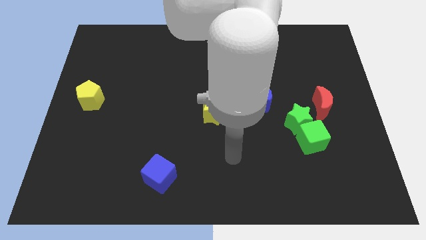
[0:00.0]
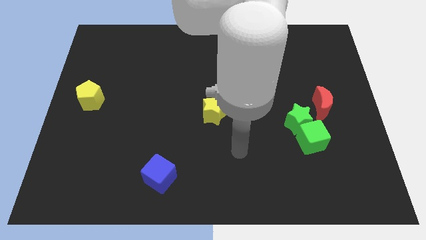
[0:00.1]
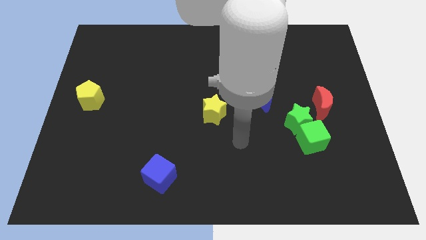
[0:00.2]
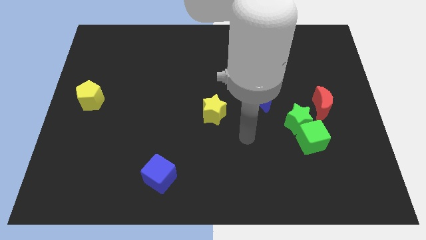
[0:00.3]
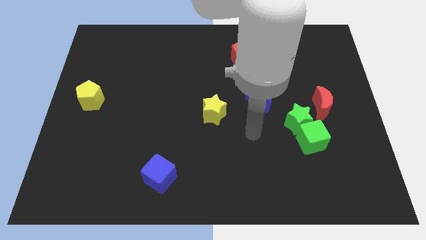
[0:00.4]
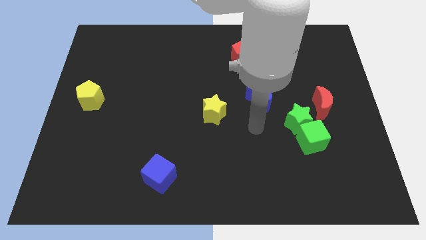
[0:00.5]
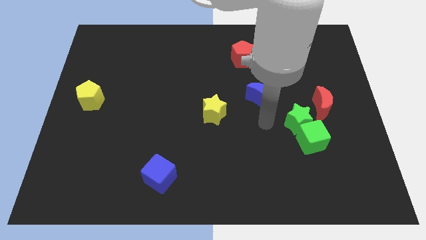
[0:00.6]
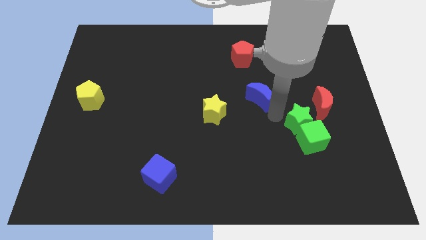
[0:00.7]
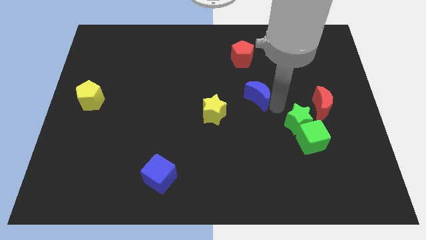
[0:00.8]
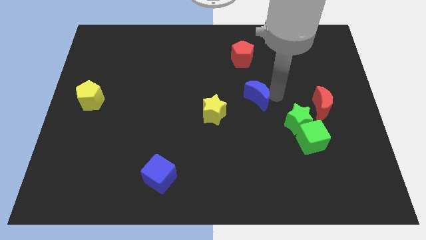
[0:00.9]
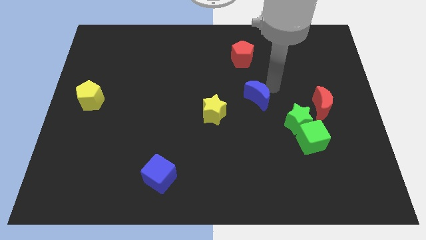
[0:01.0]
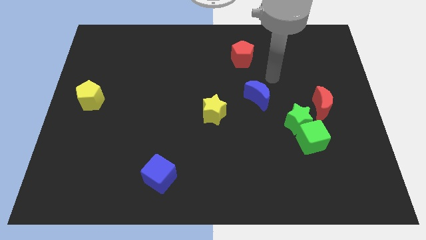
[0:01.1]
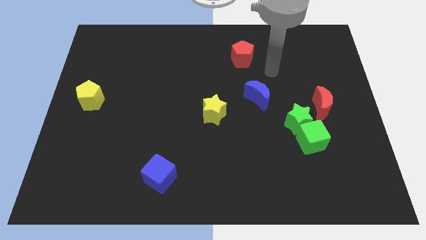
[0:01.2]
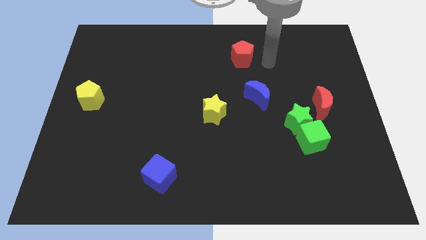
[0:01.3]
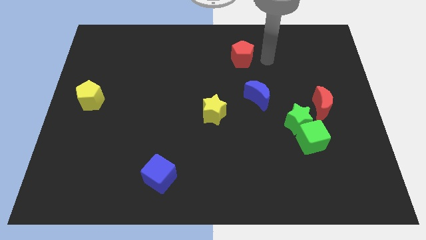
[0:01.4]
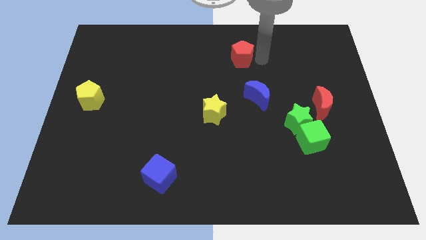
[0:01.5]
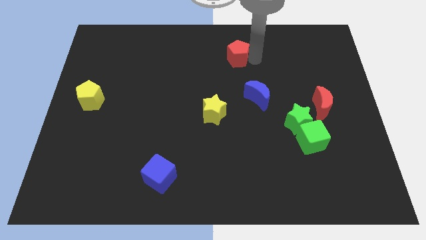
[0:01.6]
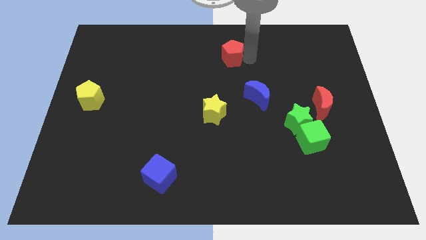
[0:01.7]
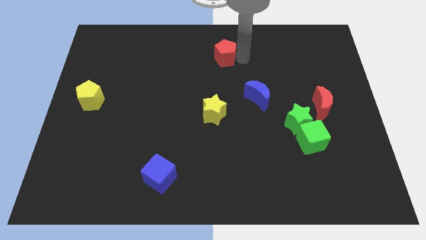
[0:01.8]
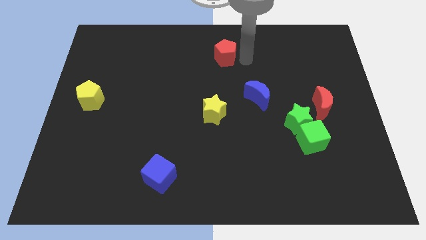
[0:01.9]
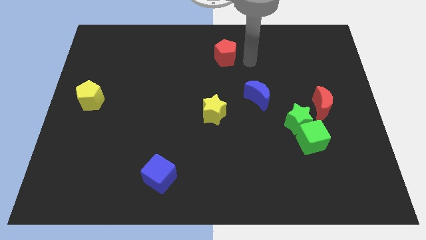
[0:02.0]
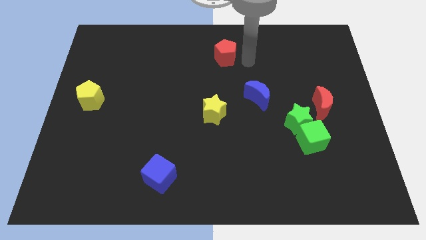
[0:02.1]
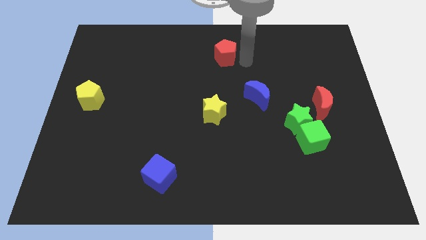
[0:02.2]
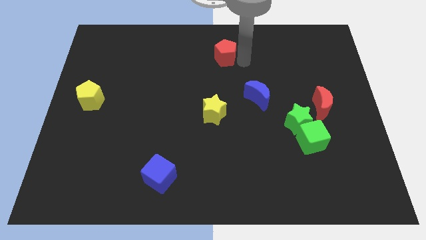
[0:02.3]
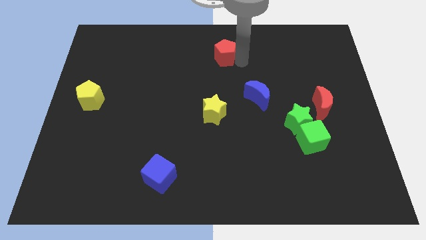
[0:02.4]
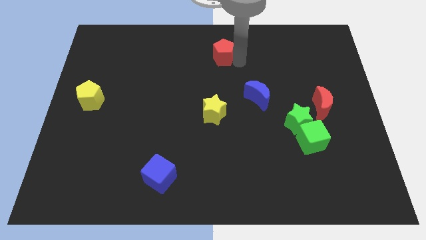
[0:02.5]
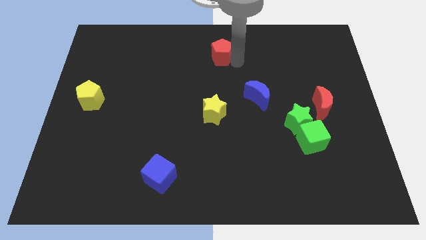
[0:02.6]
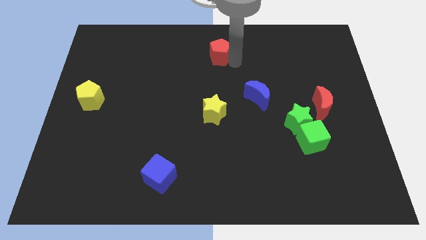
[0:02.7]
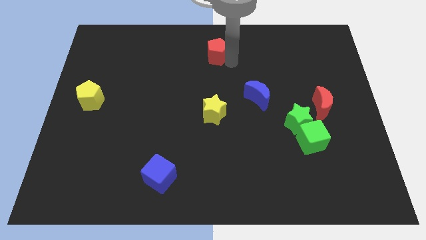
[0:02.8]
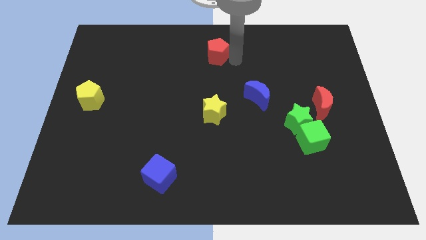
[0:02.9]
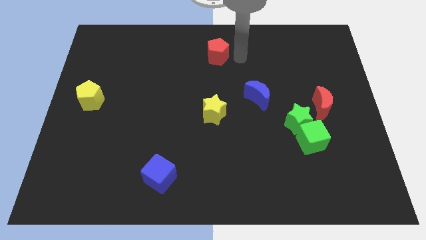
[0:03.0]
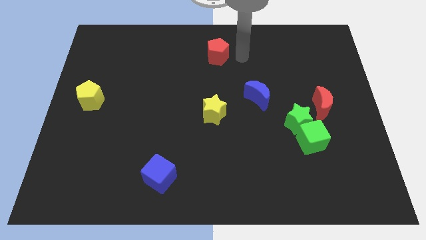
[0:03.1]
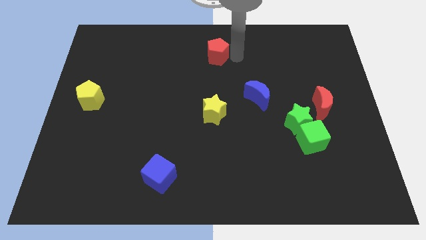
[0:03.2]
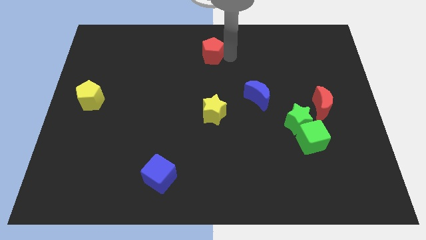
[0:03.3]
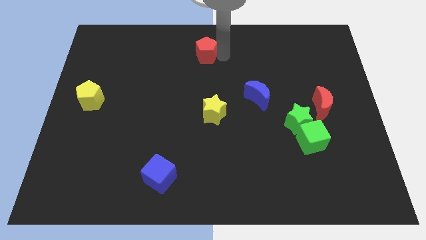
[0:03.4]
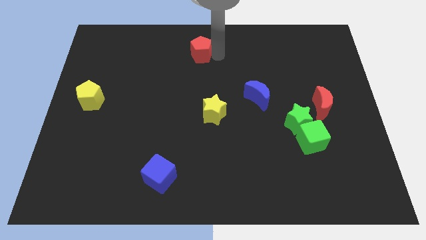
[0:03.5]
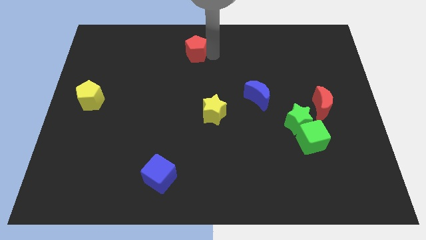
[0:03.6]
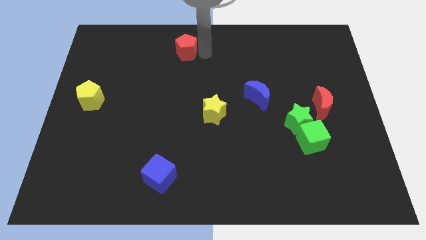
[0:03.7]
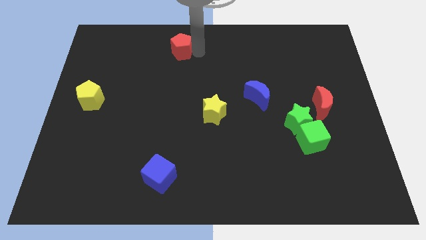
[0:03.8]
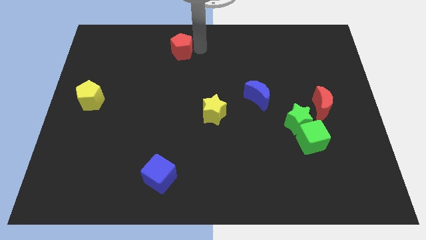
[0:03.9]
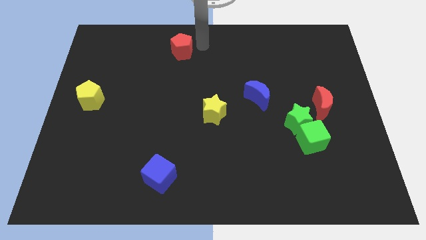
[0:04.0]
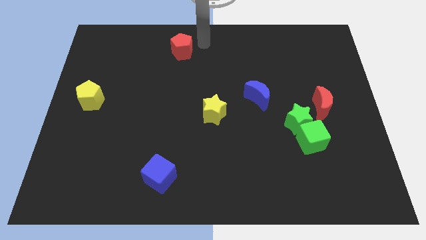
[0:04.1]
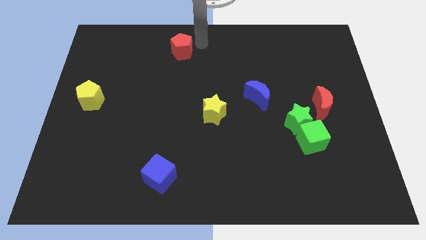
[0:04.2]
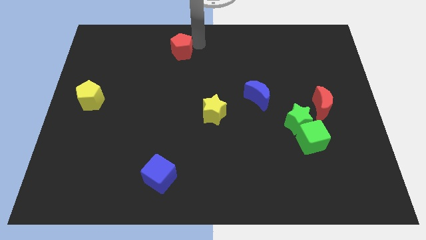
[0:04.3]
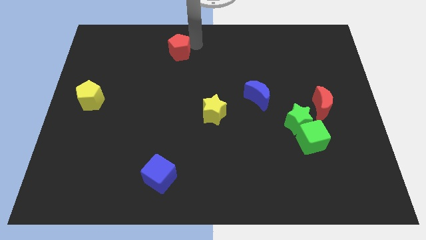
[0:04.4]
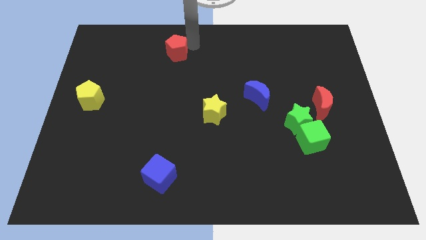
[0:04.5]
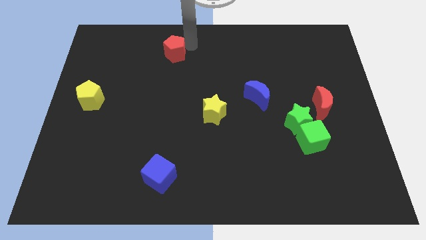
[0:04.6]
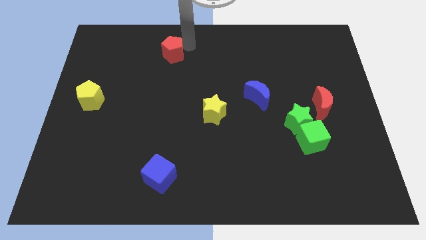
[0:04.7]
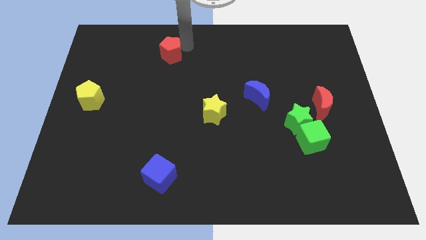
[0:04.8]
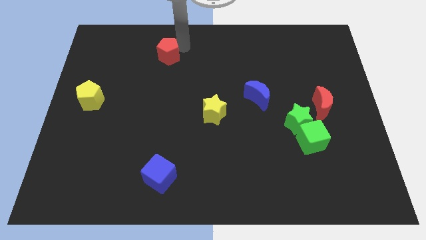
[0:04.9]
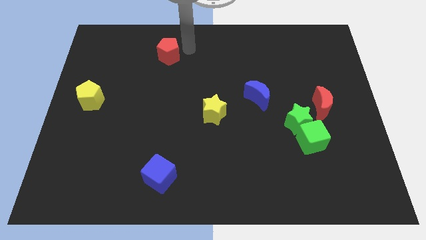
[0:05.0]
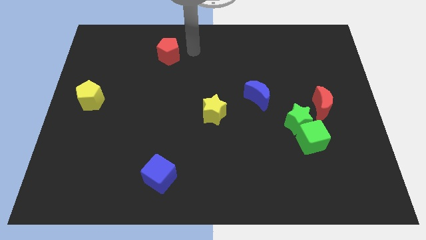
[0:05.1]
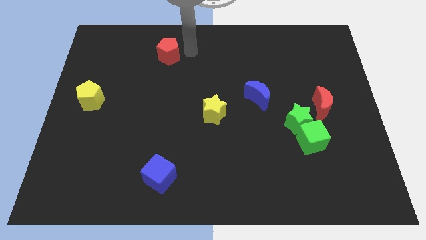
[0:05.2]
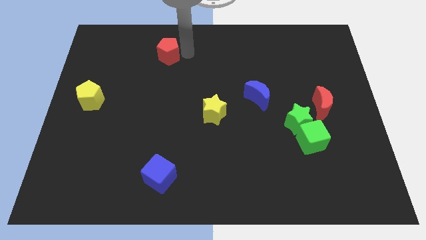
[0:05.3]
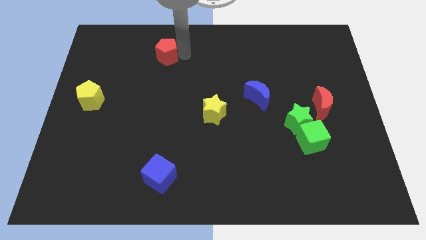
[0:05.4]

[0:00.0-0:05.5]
move the red pentagon to the left

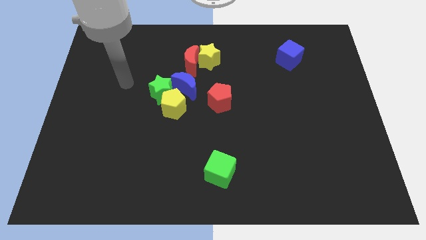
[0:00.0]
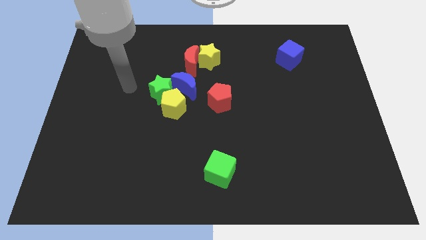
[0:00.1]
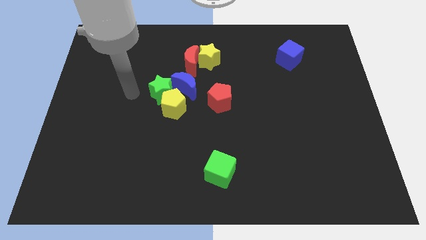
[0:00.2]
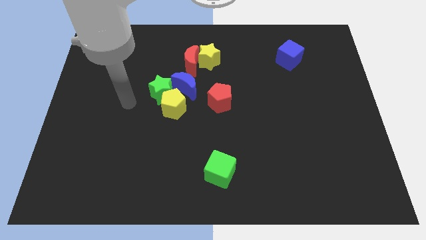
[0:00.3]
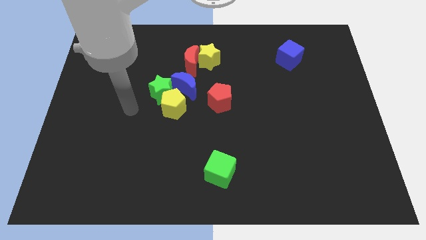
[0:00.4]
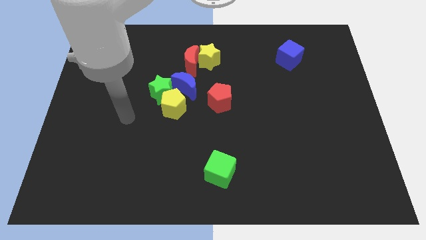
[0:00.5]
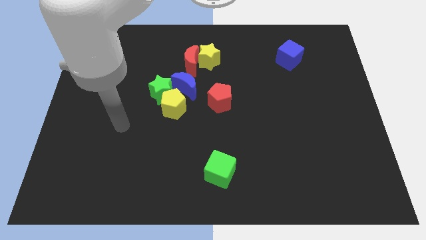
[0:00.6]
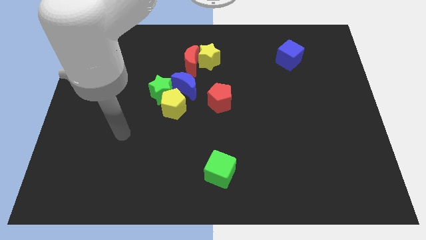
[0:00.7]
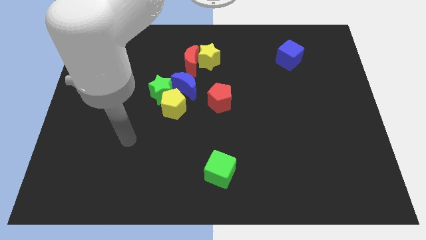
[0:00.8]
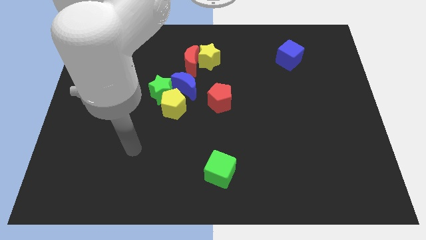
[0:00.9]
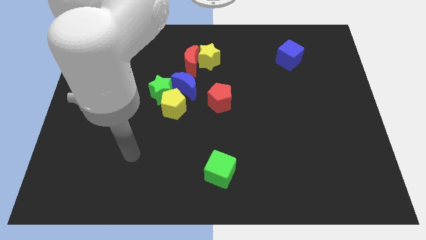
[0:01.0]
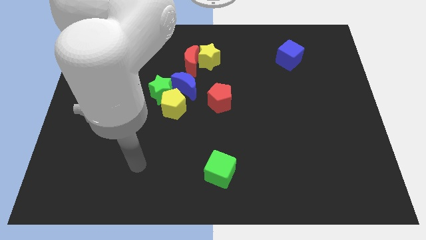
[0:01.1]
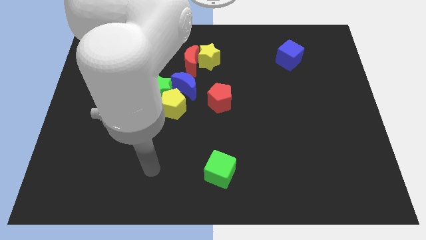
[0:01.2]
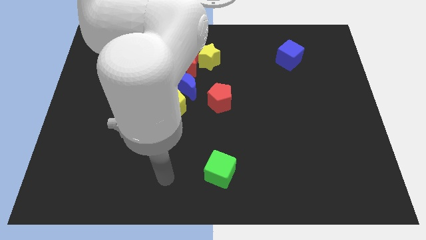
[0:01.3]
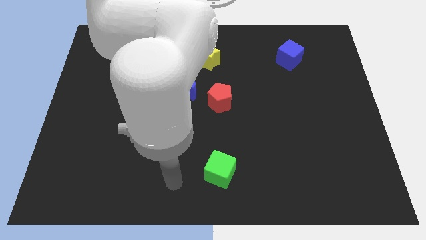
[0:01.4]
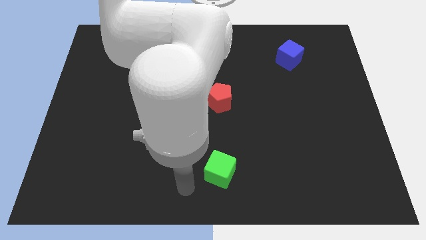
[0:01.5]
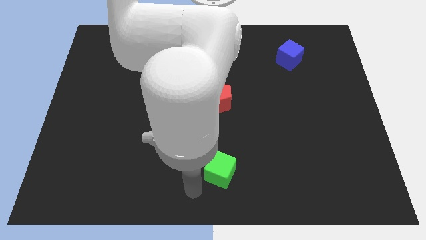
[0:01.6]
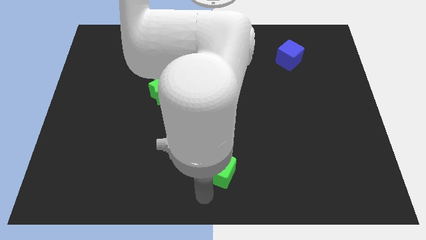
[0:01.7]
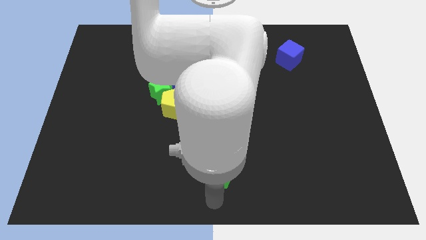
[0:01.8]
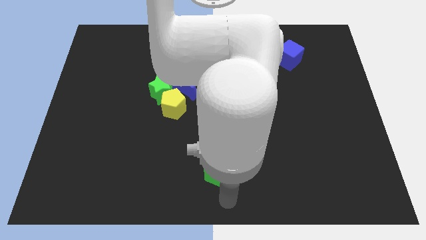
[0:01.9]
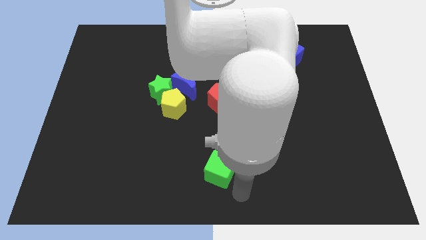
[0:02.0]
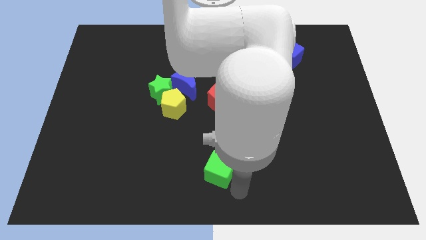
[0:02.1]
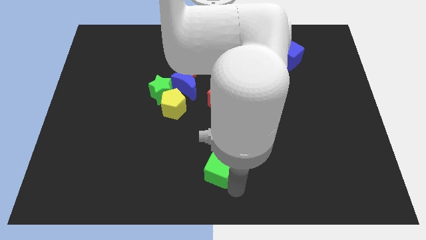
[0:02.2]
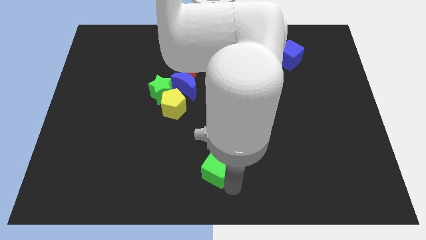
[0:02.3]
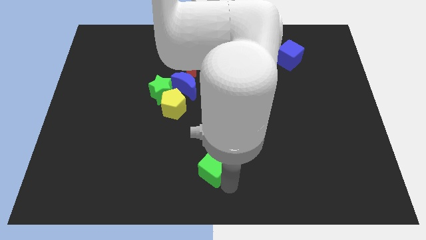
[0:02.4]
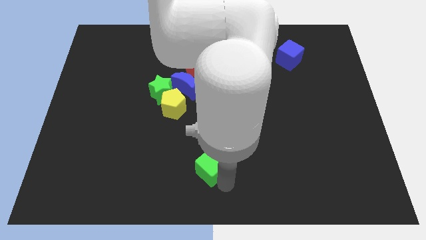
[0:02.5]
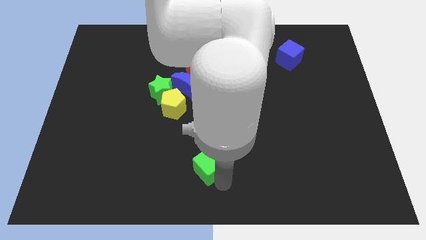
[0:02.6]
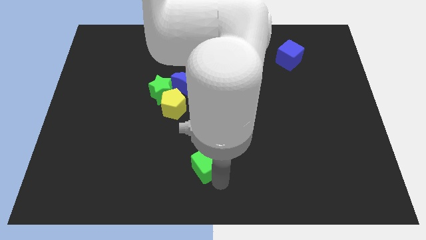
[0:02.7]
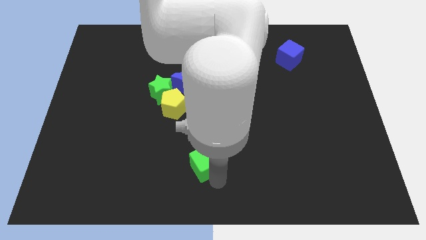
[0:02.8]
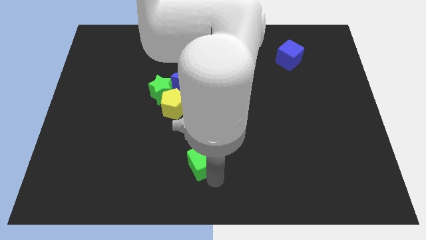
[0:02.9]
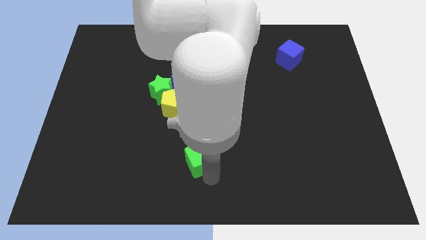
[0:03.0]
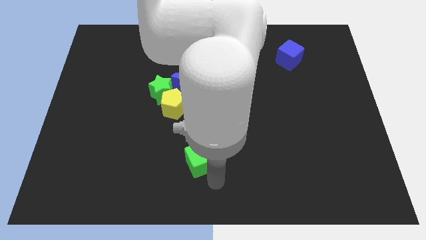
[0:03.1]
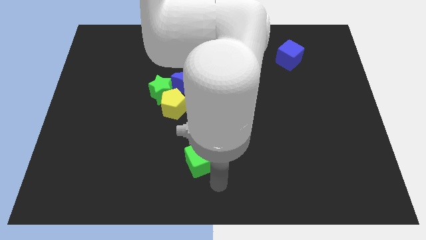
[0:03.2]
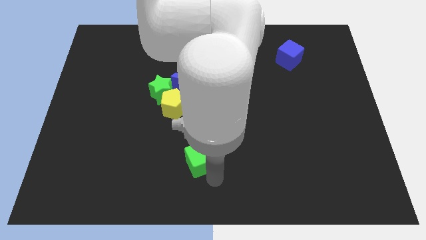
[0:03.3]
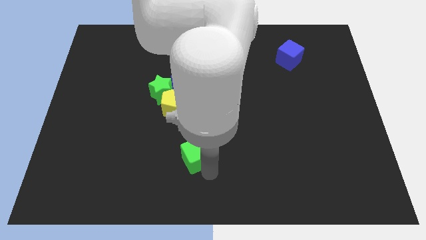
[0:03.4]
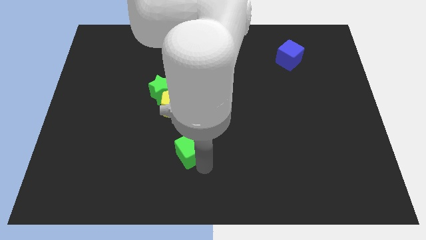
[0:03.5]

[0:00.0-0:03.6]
slightly move the green cube up and to the left diagonally
